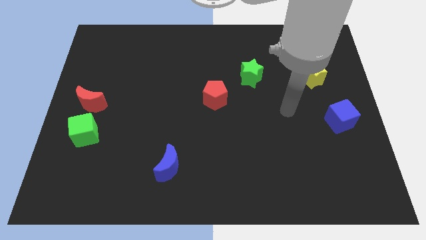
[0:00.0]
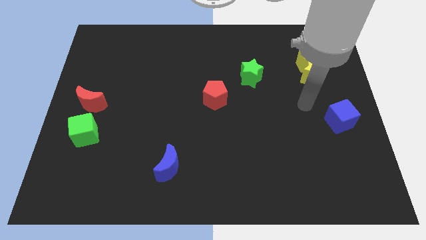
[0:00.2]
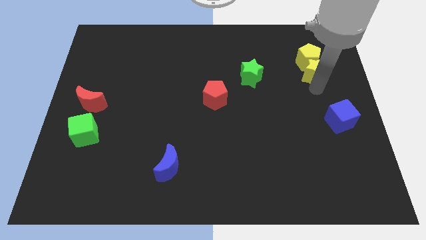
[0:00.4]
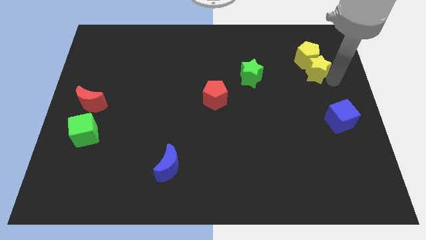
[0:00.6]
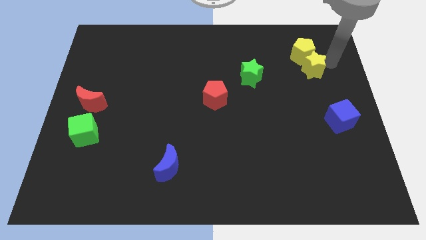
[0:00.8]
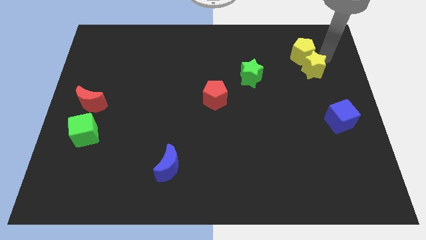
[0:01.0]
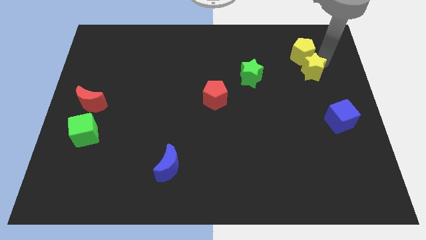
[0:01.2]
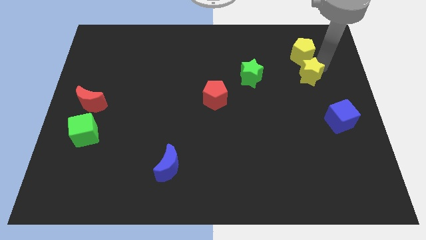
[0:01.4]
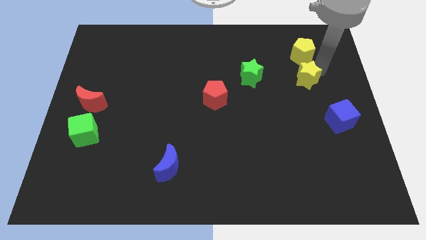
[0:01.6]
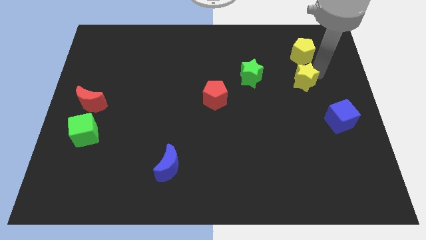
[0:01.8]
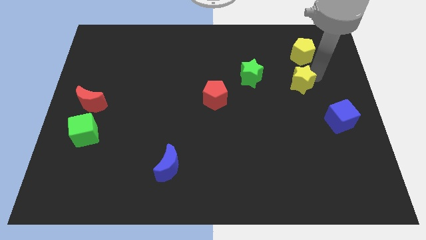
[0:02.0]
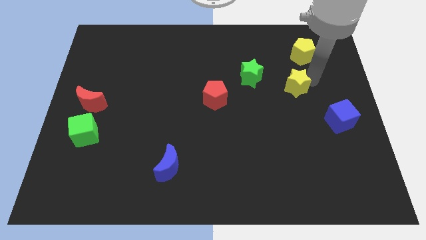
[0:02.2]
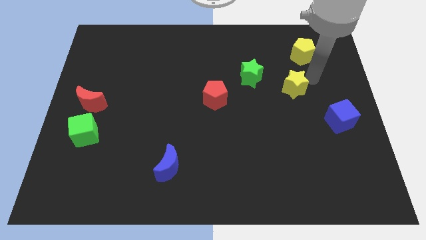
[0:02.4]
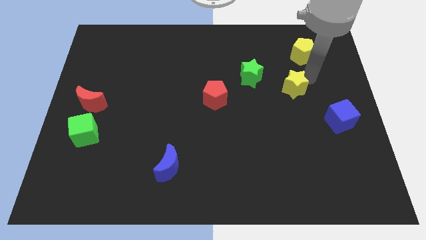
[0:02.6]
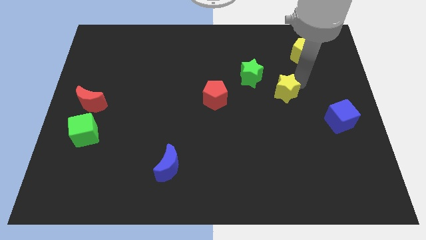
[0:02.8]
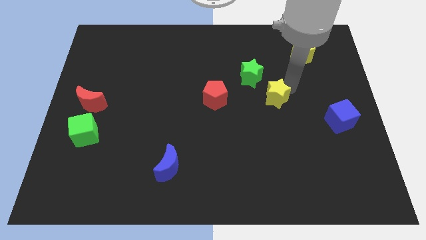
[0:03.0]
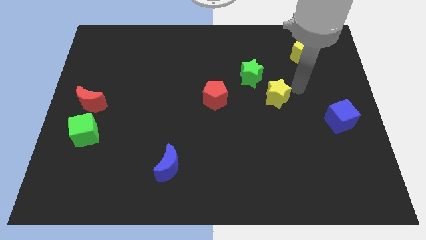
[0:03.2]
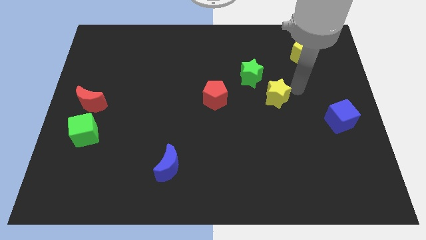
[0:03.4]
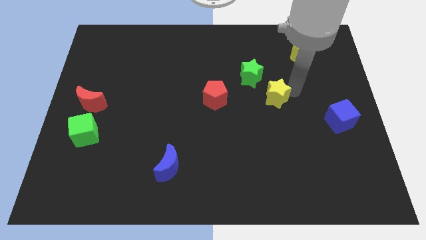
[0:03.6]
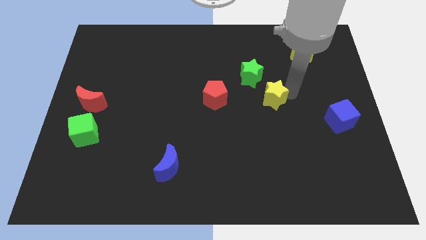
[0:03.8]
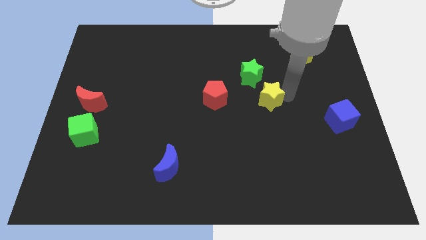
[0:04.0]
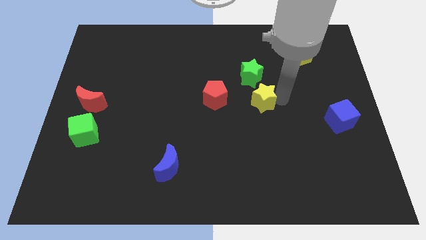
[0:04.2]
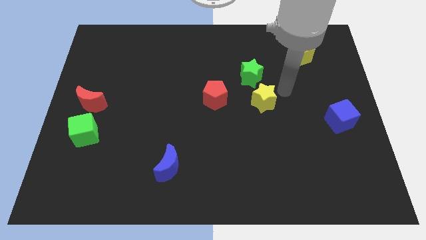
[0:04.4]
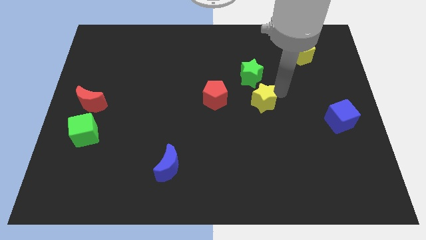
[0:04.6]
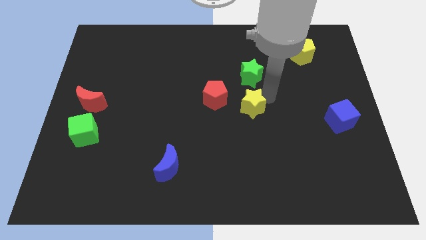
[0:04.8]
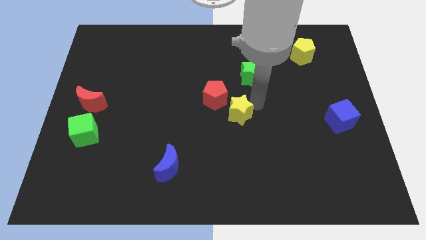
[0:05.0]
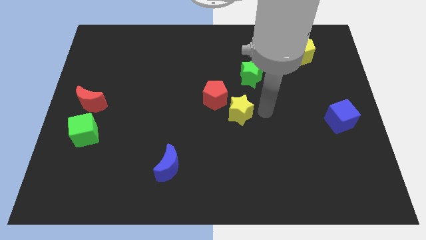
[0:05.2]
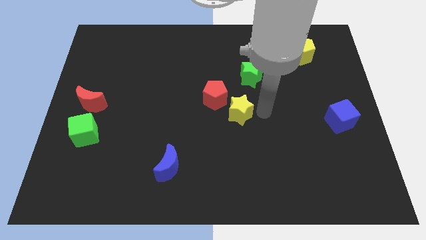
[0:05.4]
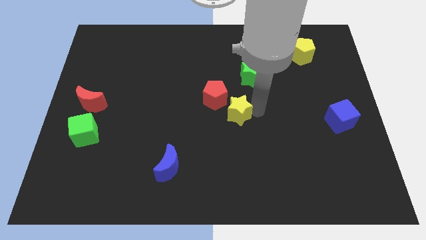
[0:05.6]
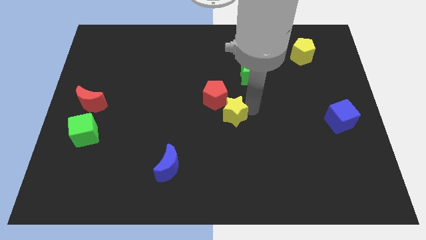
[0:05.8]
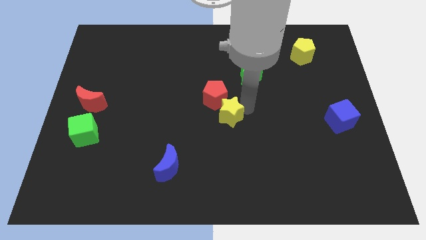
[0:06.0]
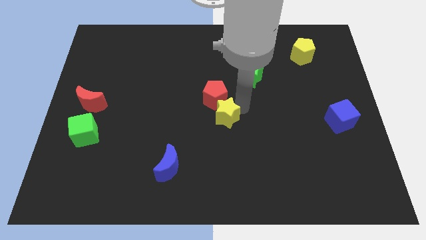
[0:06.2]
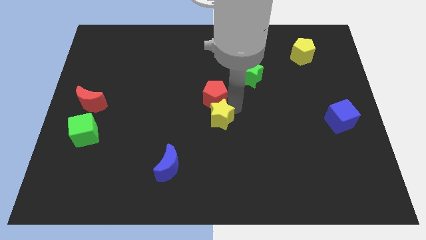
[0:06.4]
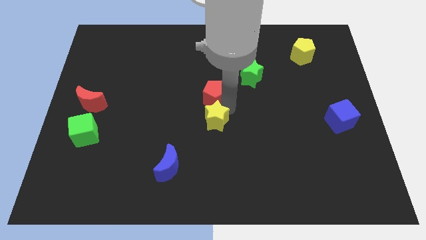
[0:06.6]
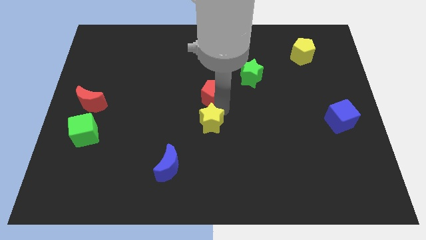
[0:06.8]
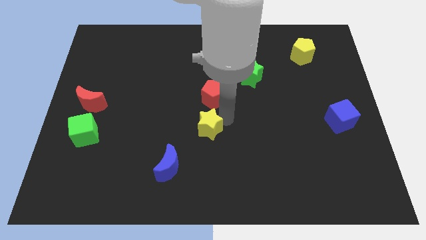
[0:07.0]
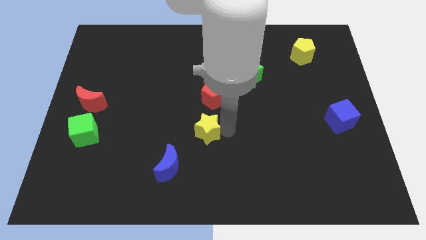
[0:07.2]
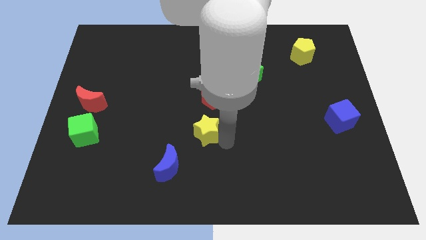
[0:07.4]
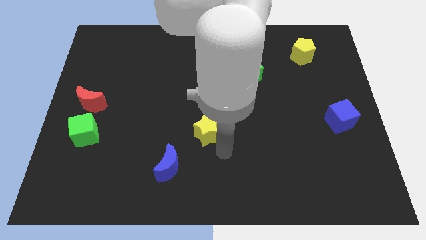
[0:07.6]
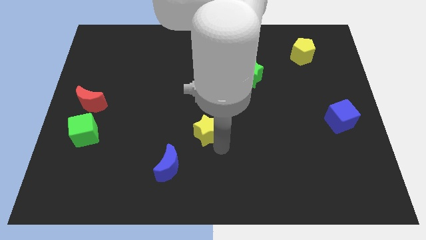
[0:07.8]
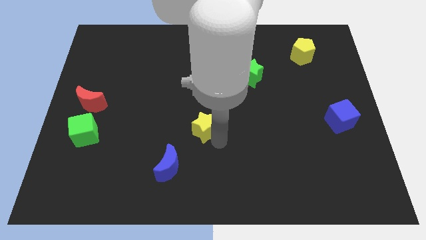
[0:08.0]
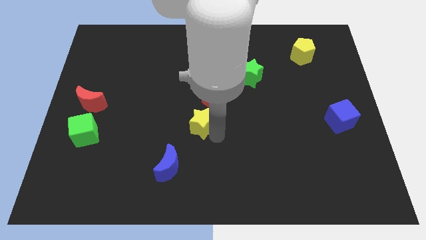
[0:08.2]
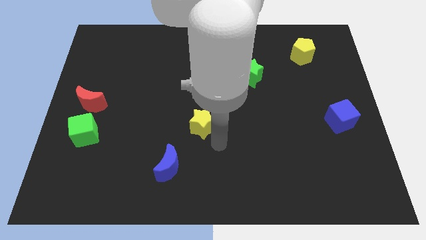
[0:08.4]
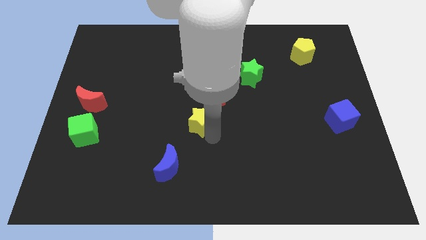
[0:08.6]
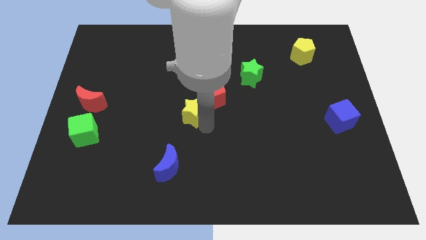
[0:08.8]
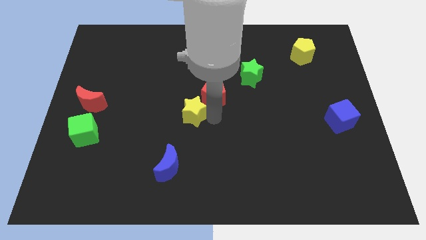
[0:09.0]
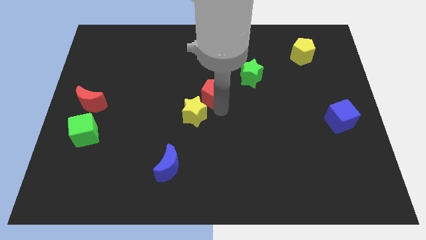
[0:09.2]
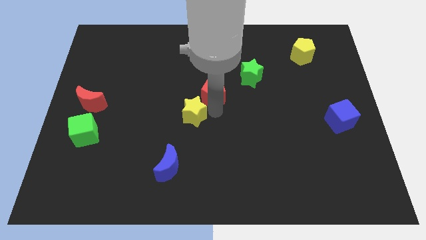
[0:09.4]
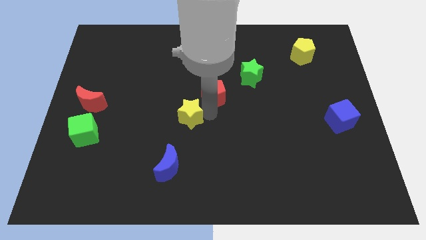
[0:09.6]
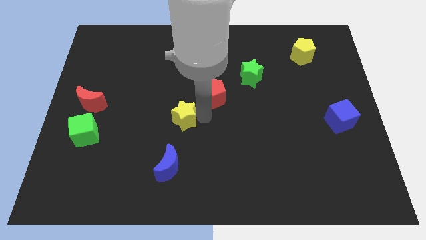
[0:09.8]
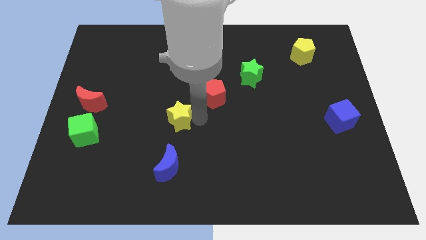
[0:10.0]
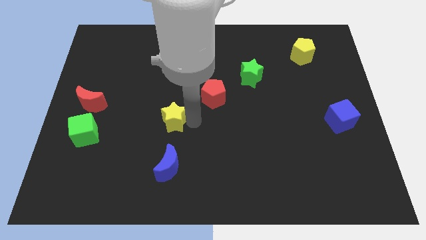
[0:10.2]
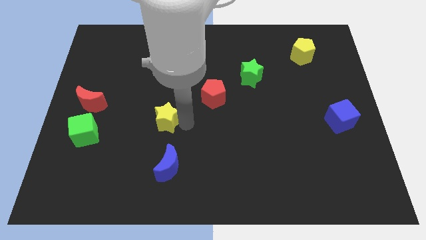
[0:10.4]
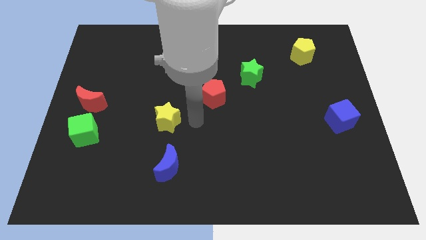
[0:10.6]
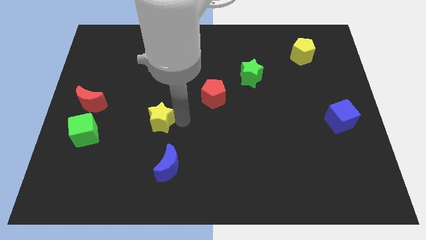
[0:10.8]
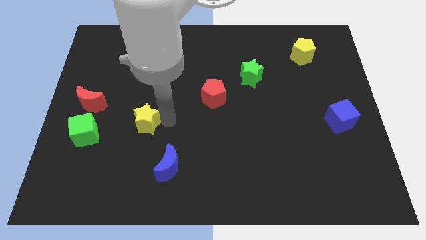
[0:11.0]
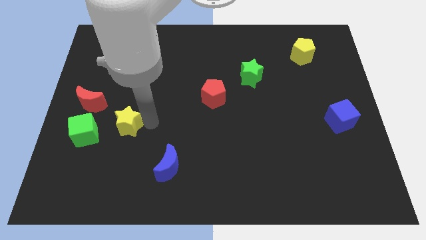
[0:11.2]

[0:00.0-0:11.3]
put the yellow star diagonally up and to the right of the green cube

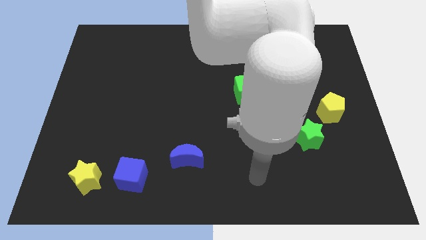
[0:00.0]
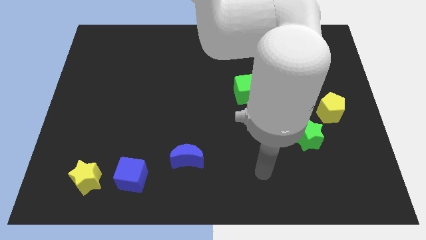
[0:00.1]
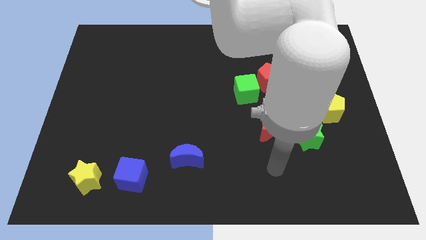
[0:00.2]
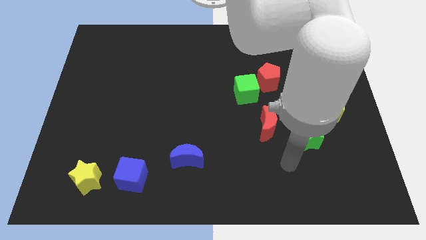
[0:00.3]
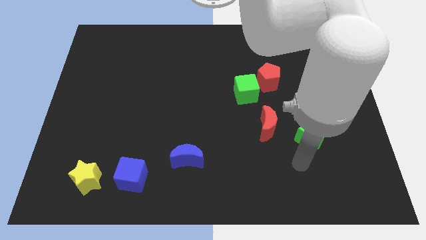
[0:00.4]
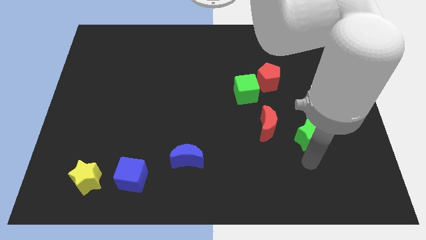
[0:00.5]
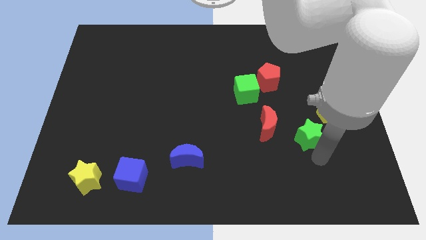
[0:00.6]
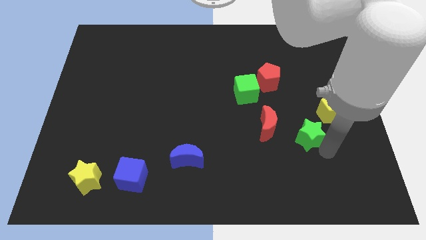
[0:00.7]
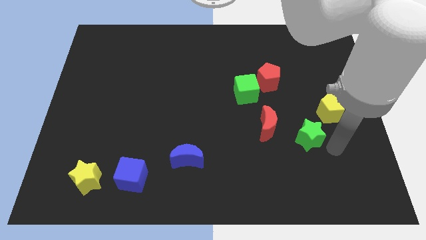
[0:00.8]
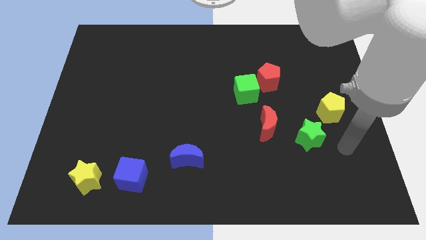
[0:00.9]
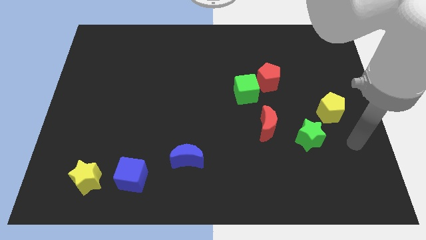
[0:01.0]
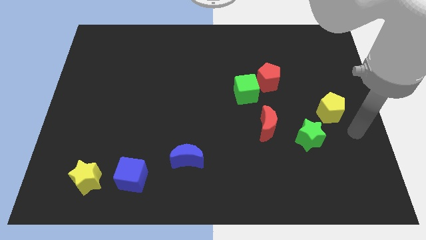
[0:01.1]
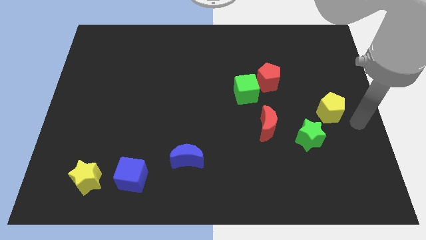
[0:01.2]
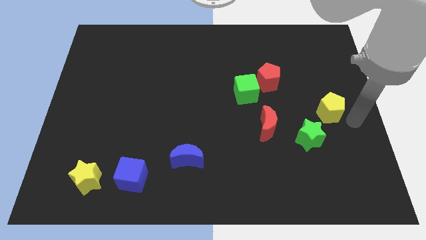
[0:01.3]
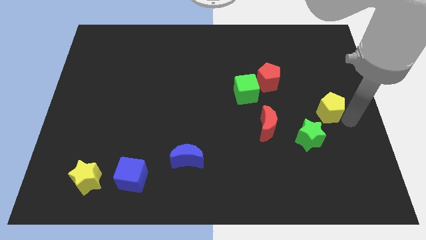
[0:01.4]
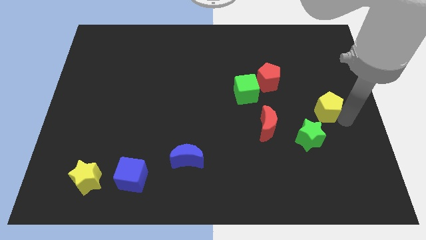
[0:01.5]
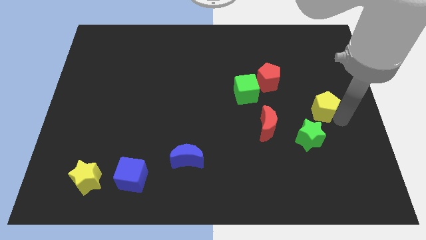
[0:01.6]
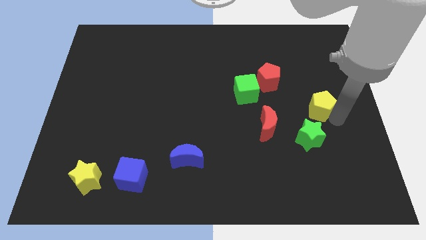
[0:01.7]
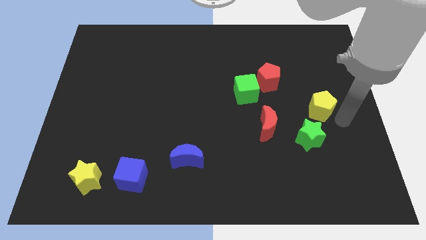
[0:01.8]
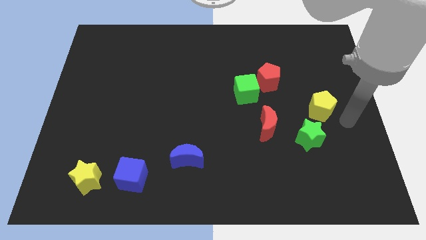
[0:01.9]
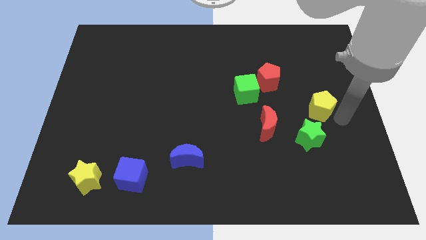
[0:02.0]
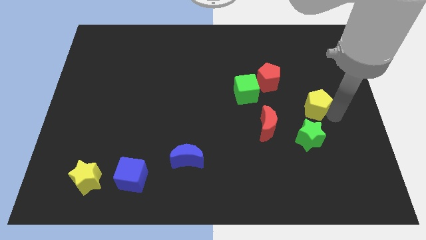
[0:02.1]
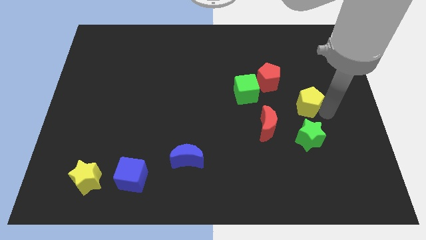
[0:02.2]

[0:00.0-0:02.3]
push the yellow pentagon to the bottom right side of the red pentagon
